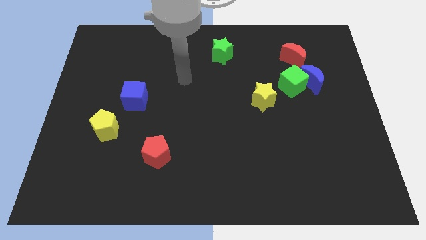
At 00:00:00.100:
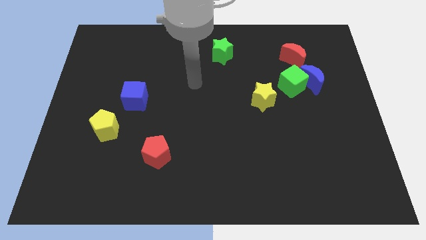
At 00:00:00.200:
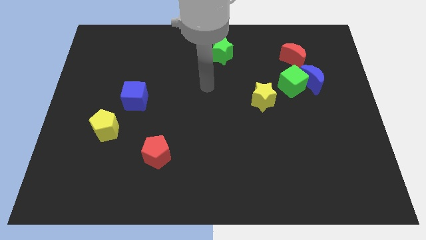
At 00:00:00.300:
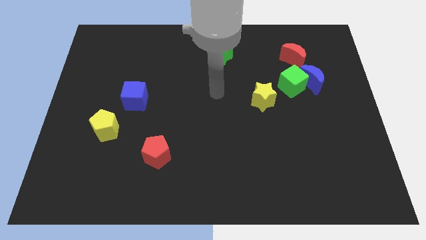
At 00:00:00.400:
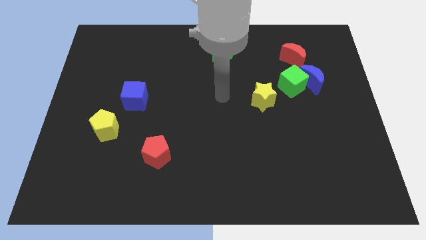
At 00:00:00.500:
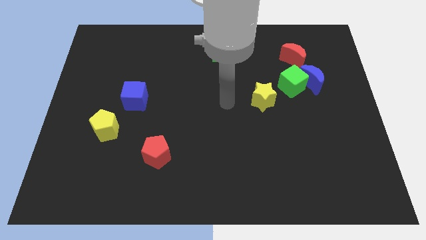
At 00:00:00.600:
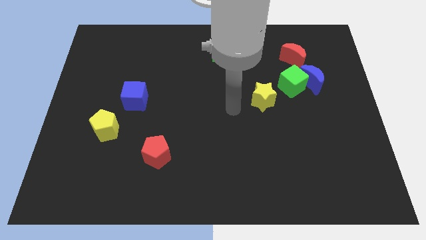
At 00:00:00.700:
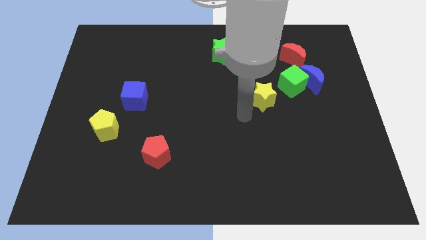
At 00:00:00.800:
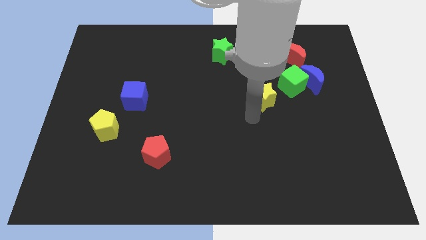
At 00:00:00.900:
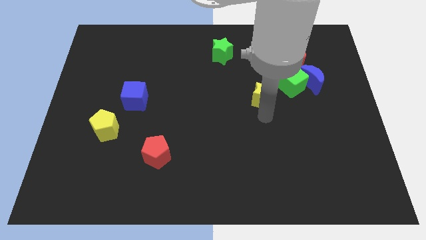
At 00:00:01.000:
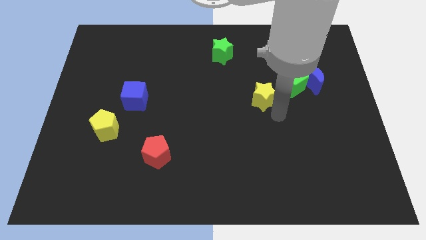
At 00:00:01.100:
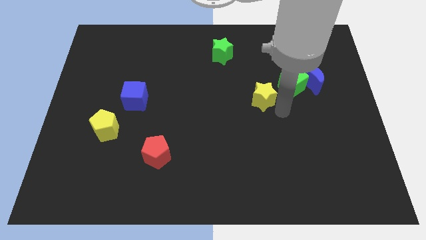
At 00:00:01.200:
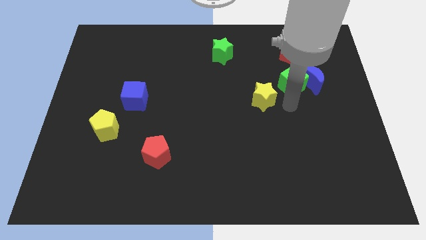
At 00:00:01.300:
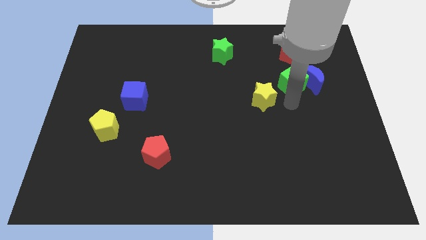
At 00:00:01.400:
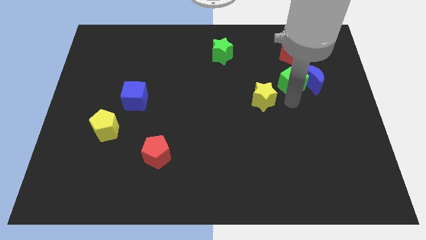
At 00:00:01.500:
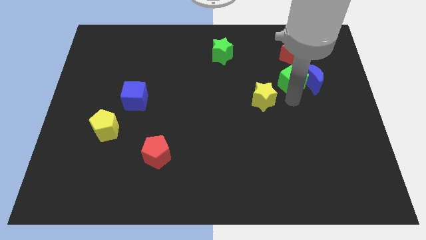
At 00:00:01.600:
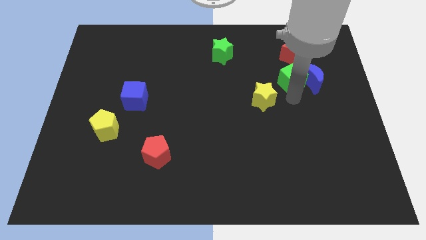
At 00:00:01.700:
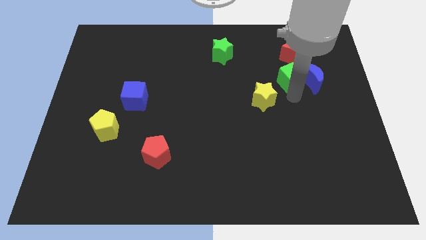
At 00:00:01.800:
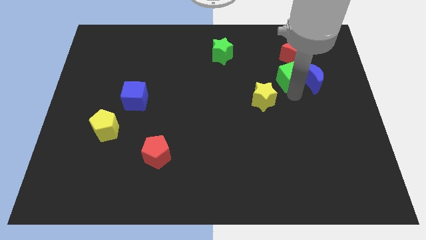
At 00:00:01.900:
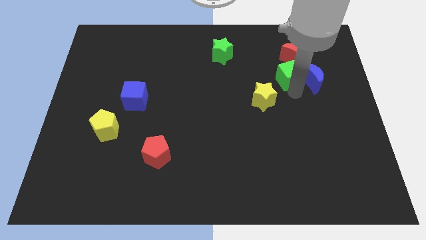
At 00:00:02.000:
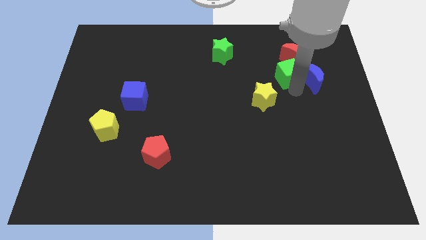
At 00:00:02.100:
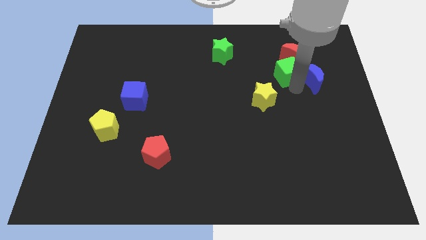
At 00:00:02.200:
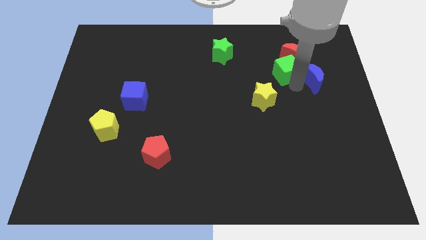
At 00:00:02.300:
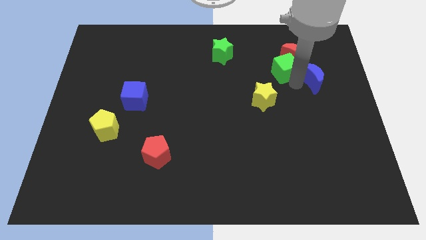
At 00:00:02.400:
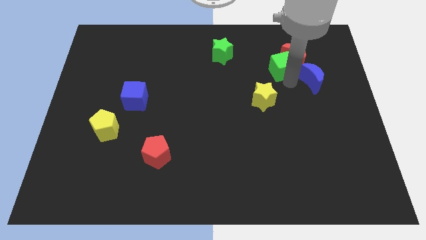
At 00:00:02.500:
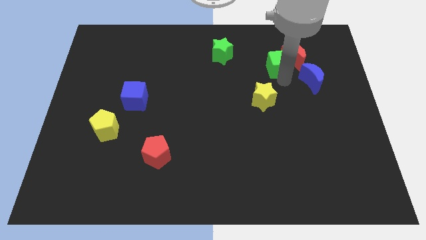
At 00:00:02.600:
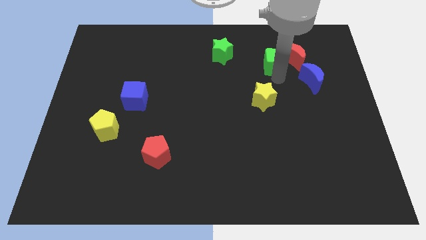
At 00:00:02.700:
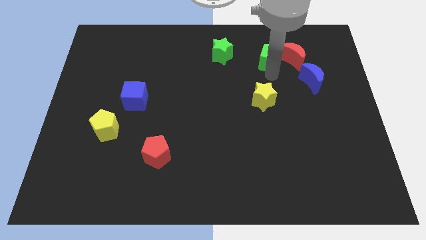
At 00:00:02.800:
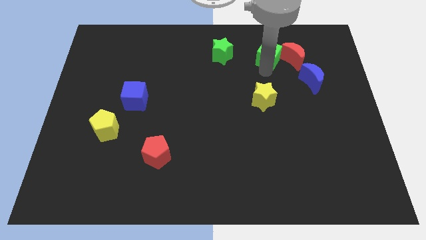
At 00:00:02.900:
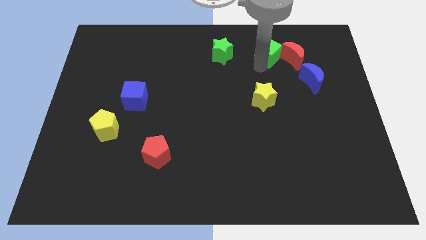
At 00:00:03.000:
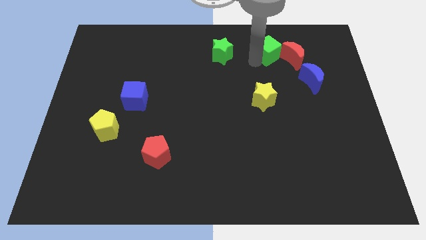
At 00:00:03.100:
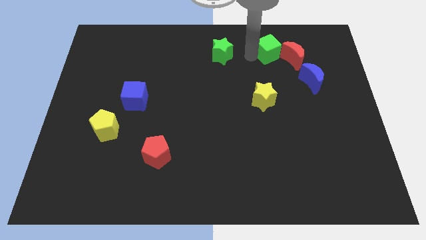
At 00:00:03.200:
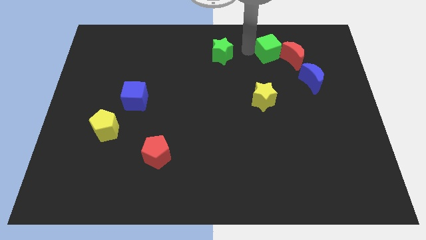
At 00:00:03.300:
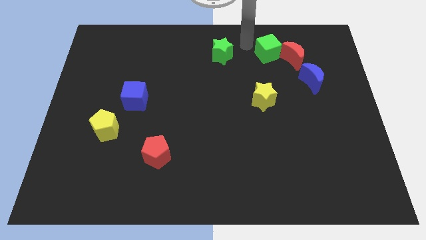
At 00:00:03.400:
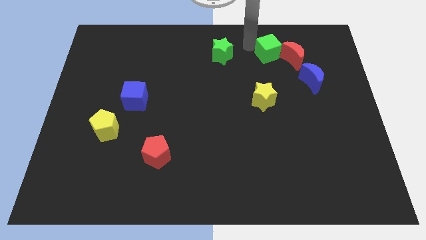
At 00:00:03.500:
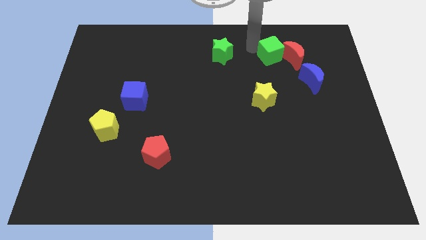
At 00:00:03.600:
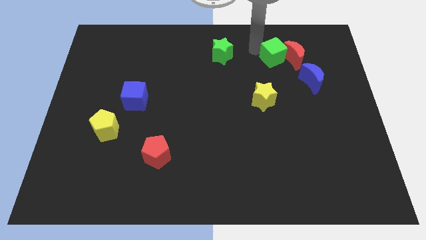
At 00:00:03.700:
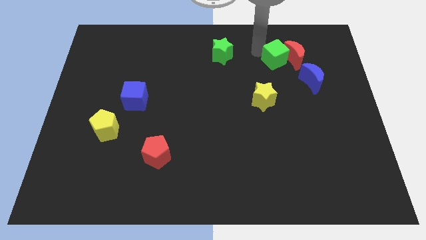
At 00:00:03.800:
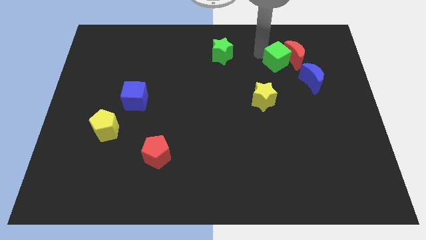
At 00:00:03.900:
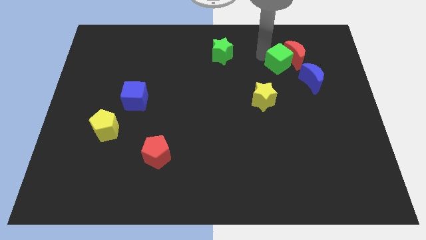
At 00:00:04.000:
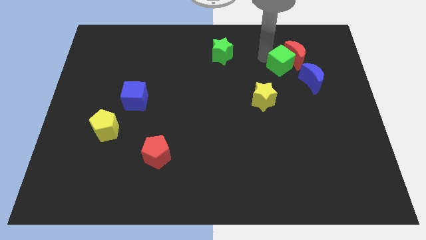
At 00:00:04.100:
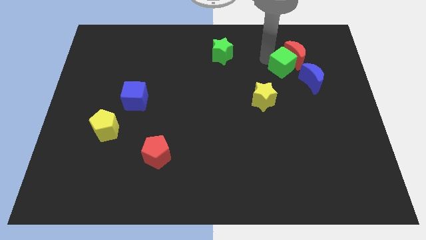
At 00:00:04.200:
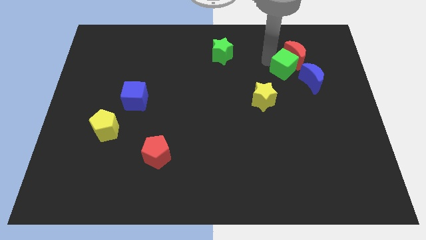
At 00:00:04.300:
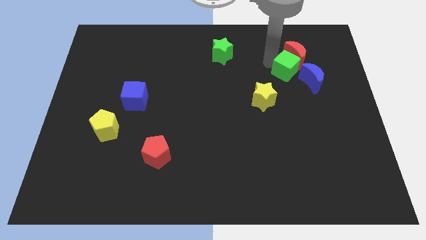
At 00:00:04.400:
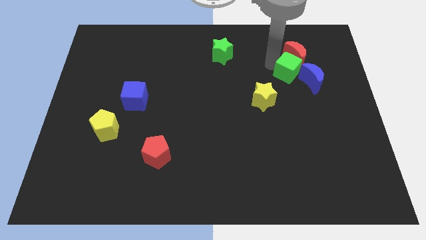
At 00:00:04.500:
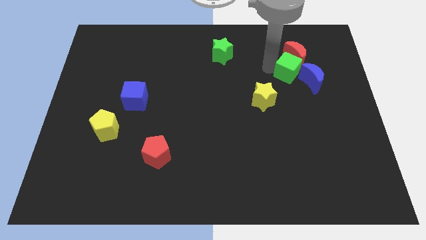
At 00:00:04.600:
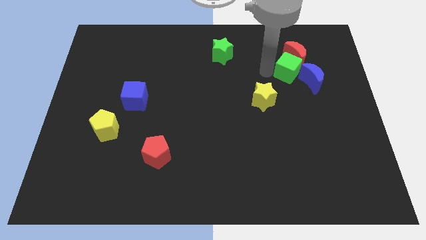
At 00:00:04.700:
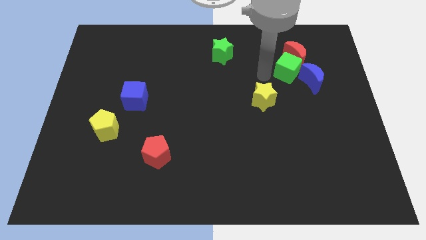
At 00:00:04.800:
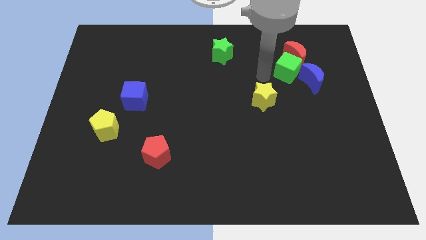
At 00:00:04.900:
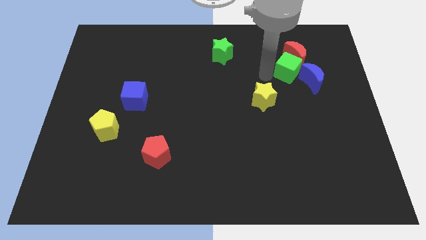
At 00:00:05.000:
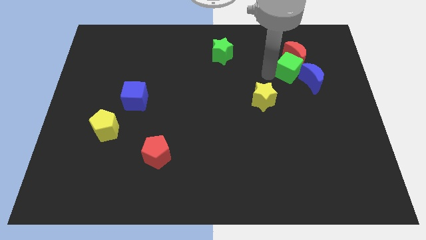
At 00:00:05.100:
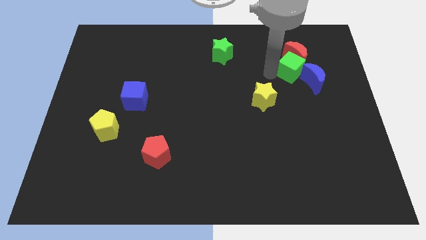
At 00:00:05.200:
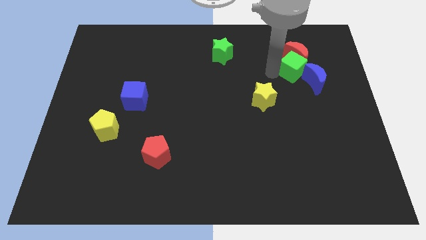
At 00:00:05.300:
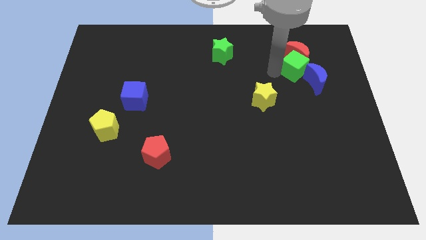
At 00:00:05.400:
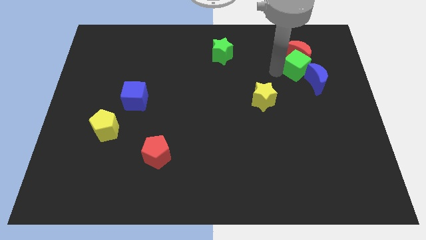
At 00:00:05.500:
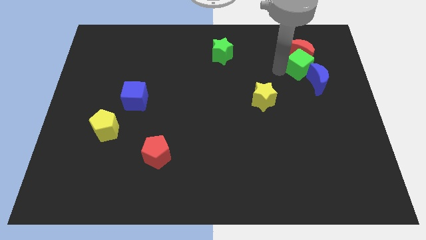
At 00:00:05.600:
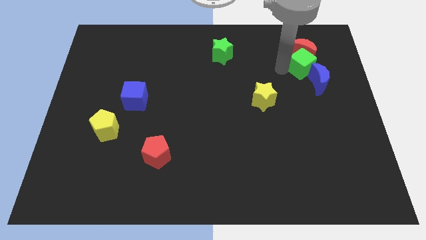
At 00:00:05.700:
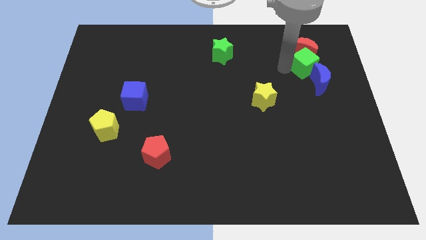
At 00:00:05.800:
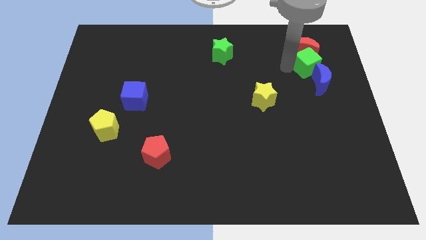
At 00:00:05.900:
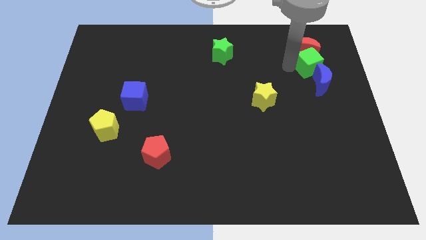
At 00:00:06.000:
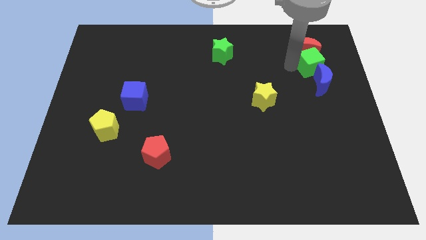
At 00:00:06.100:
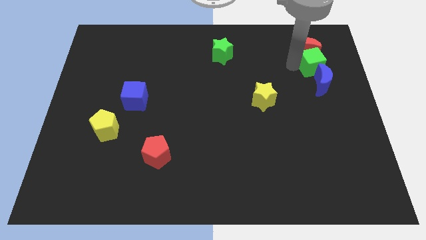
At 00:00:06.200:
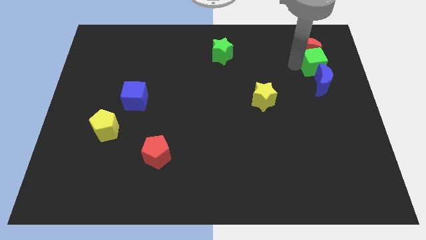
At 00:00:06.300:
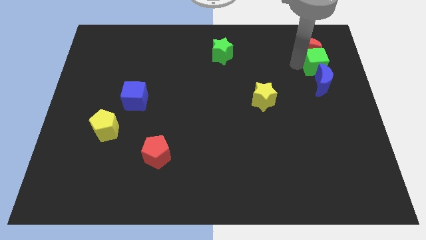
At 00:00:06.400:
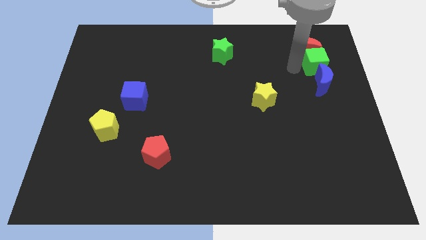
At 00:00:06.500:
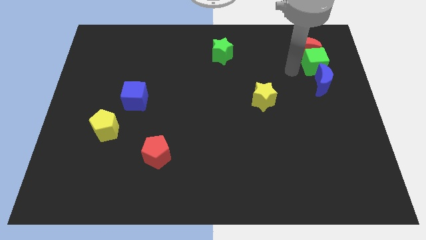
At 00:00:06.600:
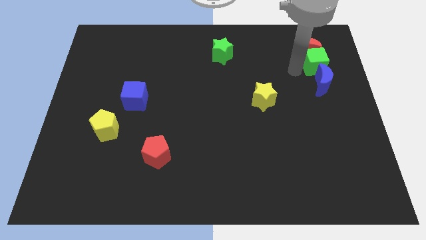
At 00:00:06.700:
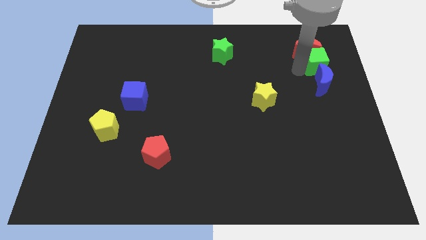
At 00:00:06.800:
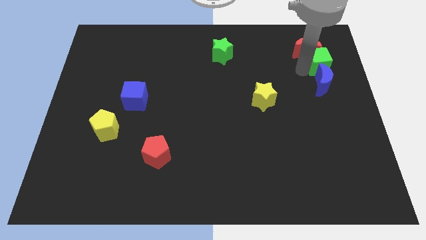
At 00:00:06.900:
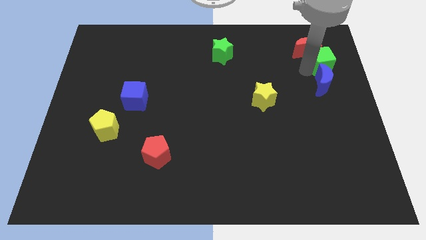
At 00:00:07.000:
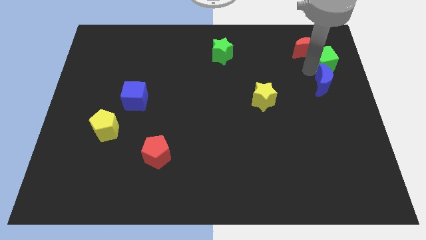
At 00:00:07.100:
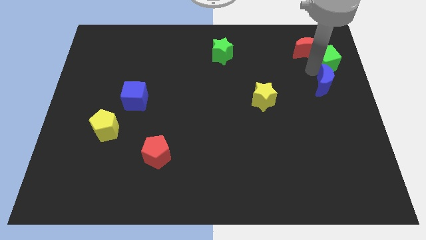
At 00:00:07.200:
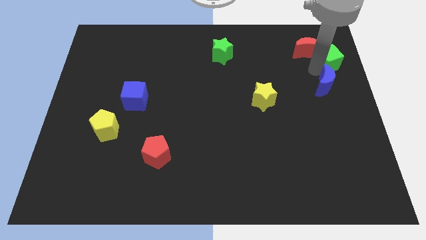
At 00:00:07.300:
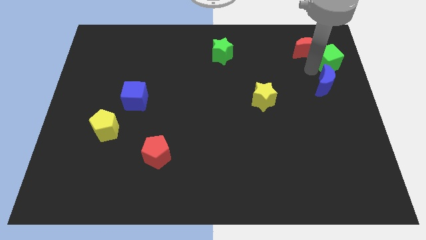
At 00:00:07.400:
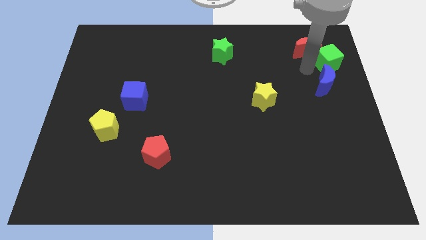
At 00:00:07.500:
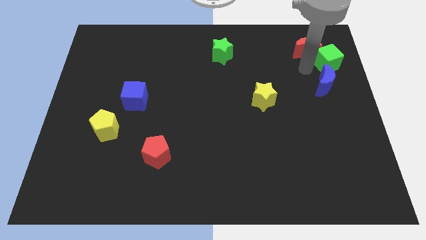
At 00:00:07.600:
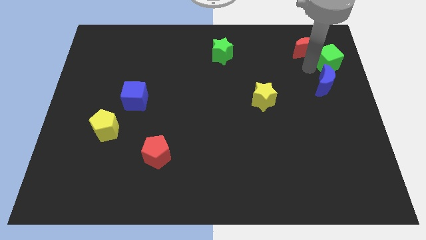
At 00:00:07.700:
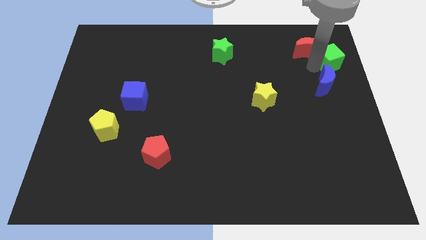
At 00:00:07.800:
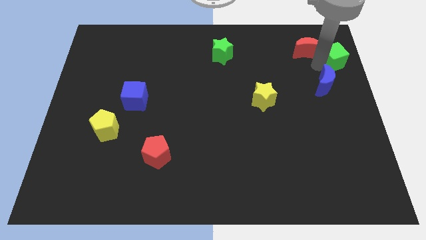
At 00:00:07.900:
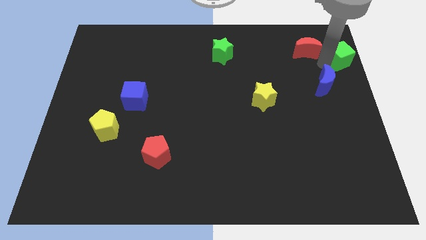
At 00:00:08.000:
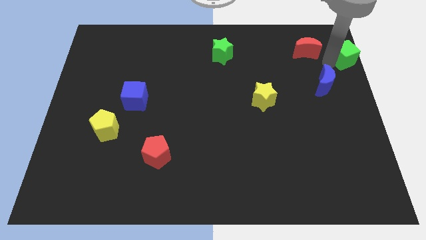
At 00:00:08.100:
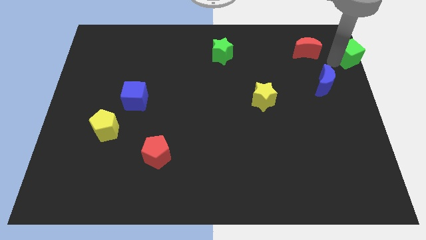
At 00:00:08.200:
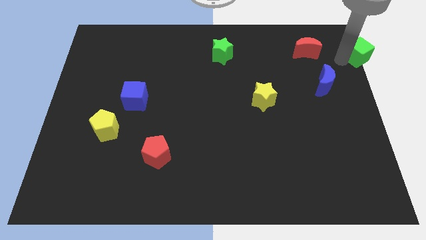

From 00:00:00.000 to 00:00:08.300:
slide the green cube to the top right
